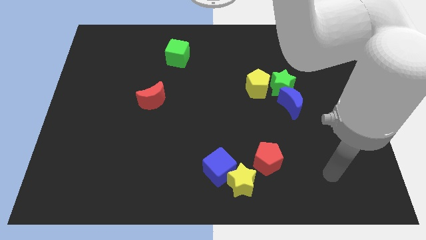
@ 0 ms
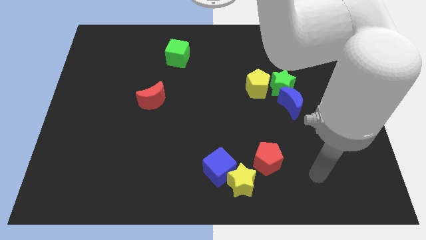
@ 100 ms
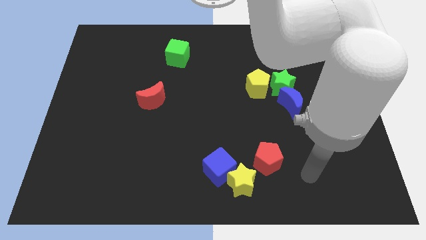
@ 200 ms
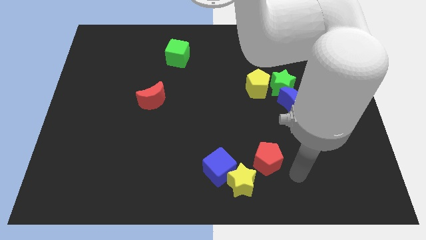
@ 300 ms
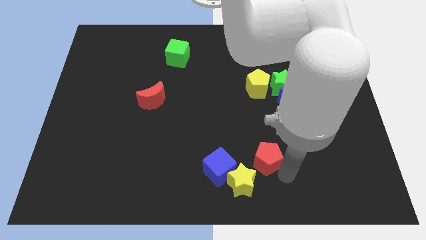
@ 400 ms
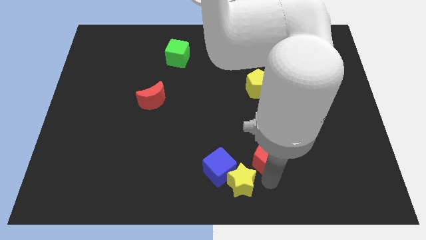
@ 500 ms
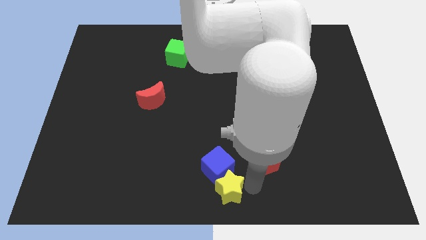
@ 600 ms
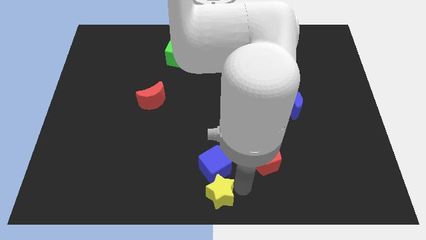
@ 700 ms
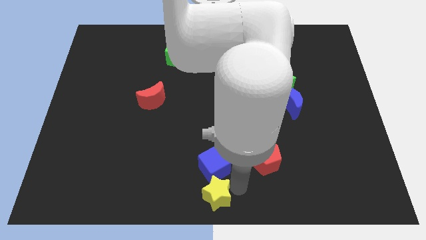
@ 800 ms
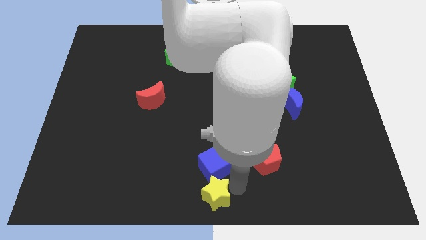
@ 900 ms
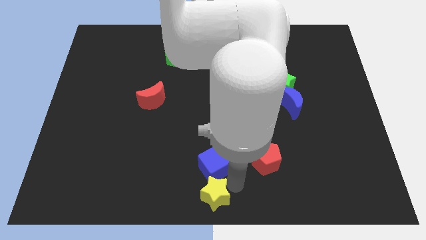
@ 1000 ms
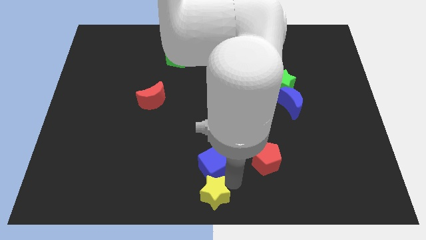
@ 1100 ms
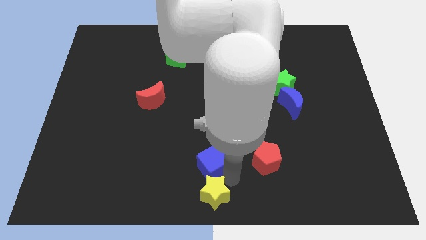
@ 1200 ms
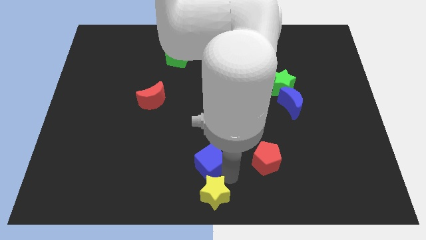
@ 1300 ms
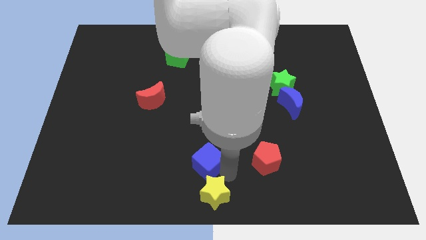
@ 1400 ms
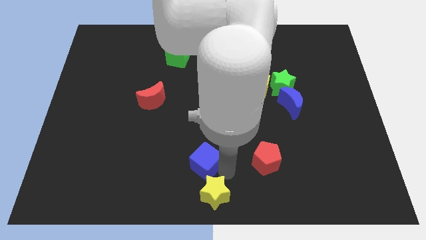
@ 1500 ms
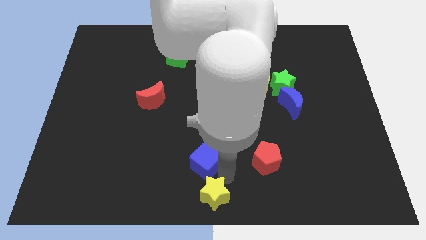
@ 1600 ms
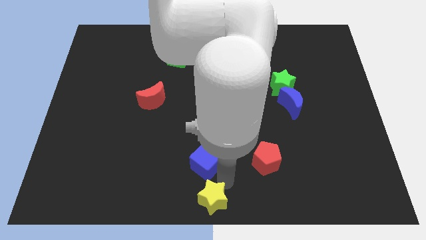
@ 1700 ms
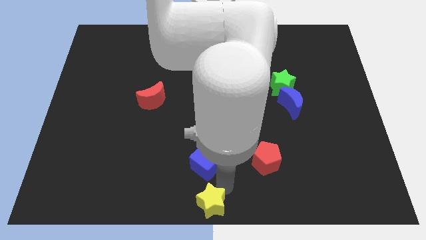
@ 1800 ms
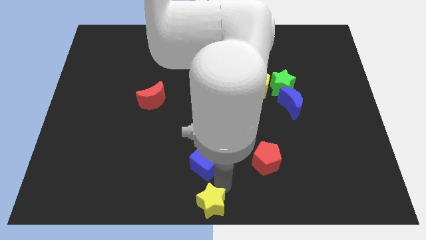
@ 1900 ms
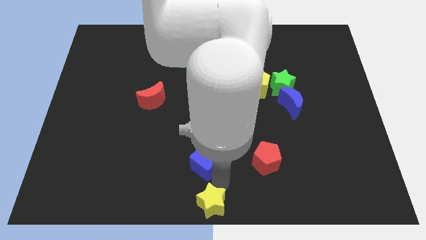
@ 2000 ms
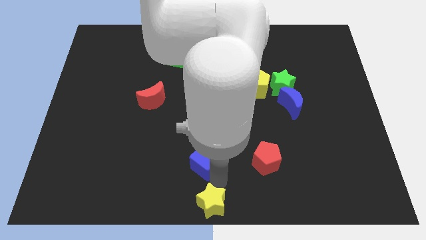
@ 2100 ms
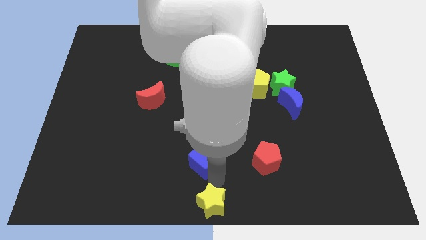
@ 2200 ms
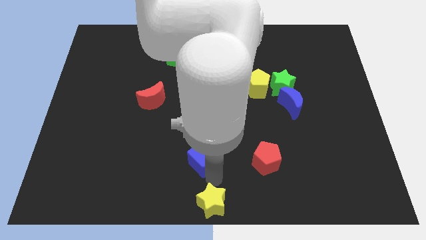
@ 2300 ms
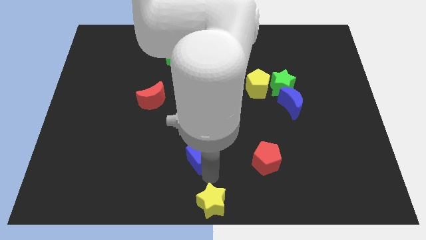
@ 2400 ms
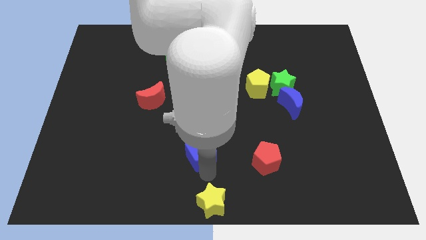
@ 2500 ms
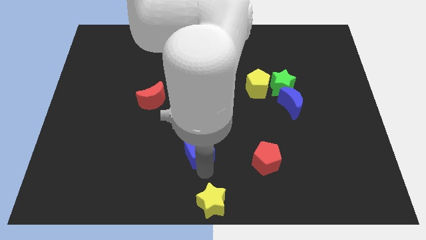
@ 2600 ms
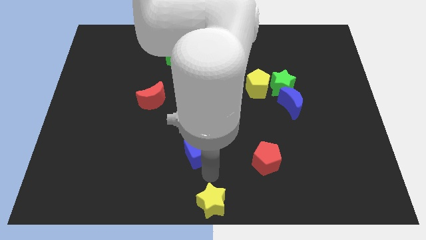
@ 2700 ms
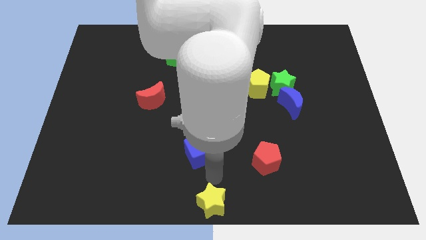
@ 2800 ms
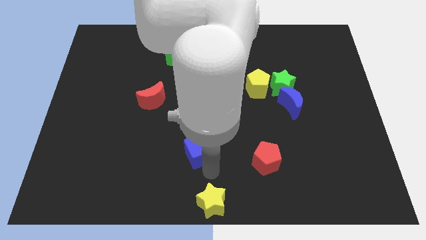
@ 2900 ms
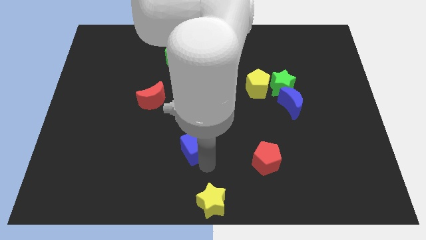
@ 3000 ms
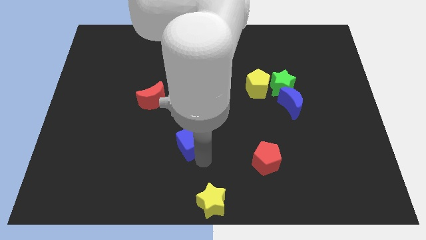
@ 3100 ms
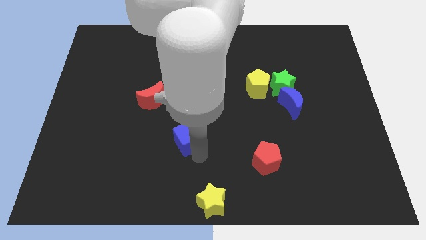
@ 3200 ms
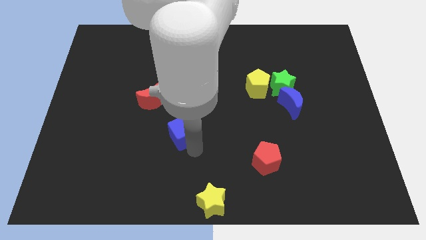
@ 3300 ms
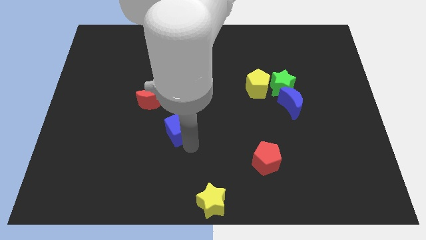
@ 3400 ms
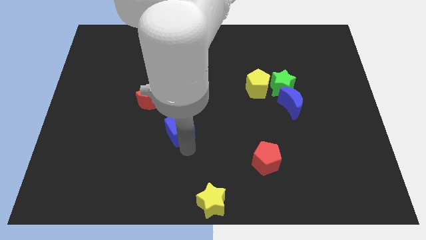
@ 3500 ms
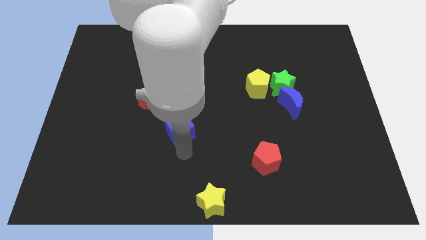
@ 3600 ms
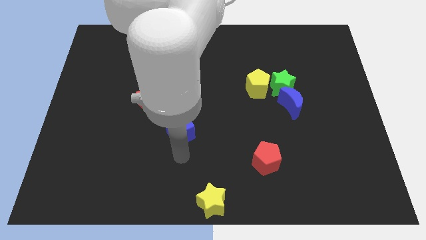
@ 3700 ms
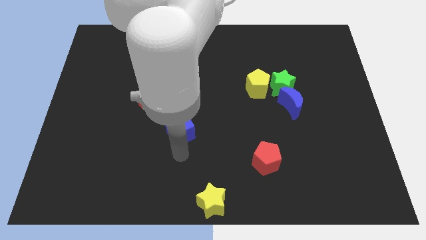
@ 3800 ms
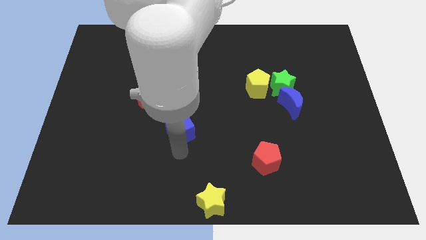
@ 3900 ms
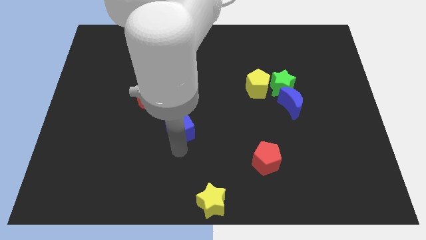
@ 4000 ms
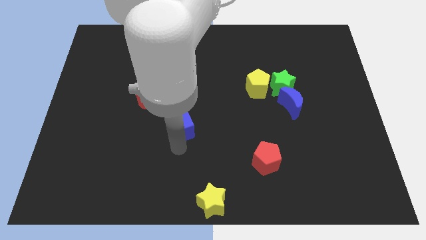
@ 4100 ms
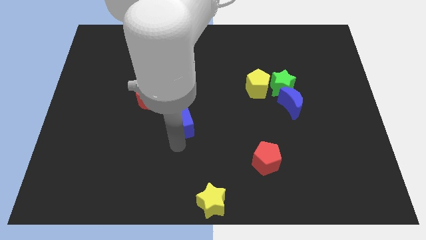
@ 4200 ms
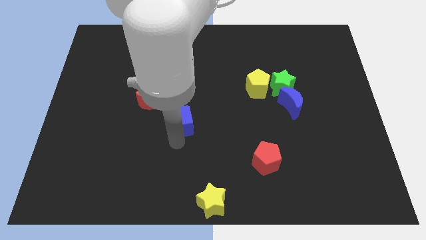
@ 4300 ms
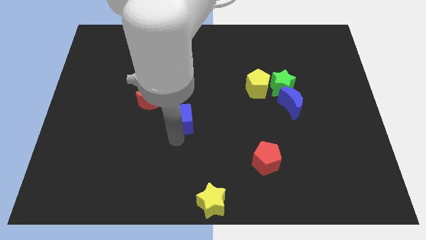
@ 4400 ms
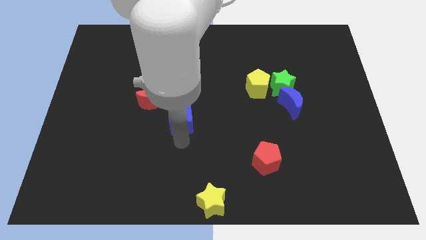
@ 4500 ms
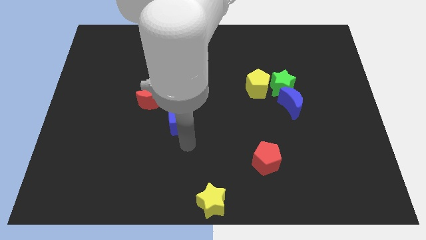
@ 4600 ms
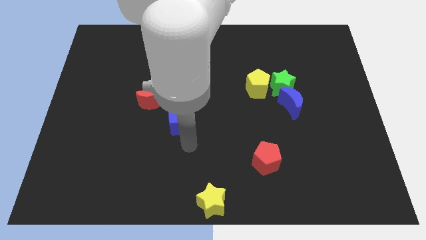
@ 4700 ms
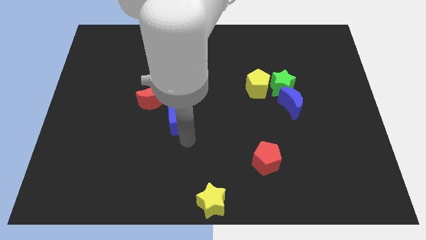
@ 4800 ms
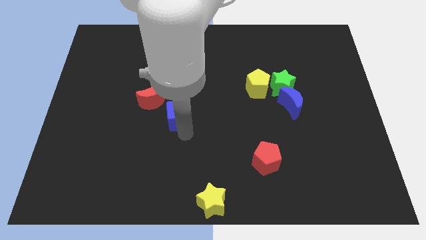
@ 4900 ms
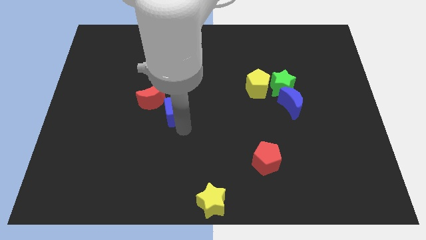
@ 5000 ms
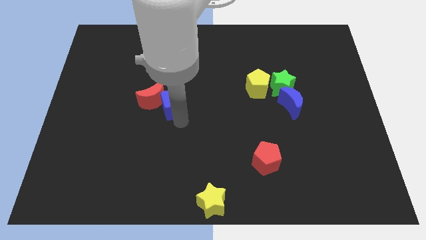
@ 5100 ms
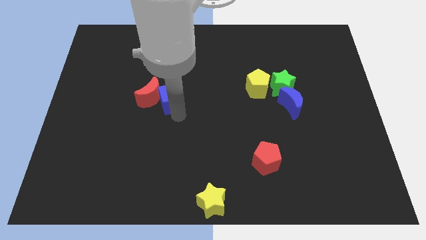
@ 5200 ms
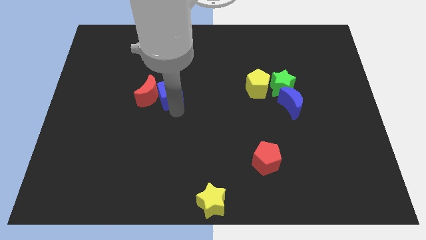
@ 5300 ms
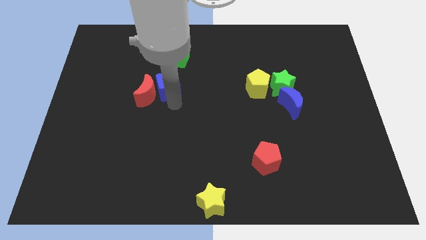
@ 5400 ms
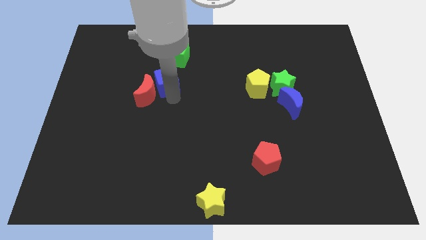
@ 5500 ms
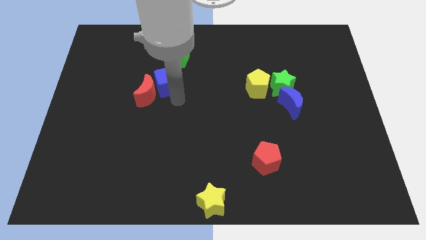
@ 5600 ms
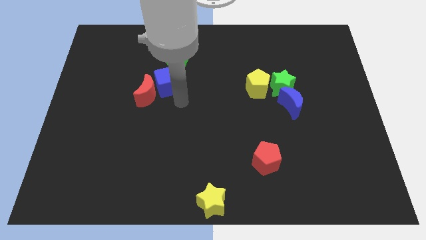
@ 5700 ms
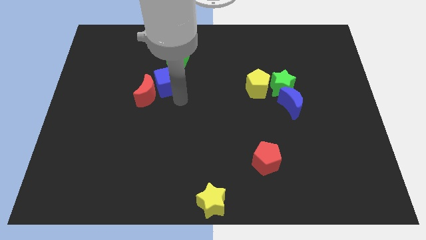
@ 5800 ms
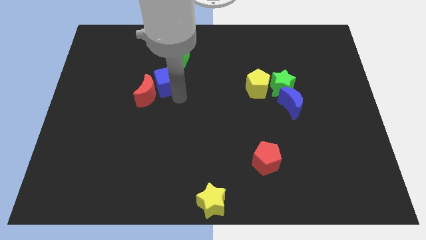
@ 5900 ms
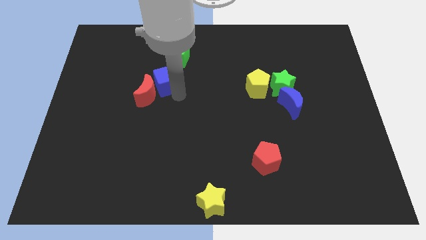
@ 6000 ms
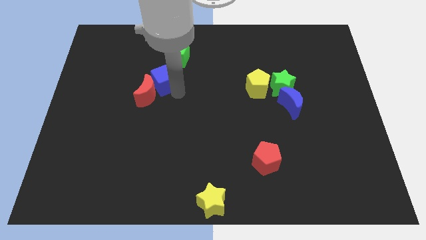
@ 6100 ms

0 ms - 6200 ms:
put the blue cube to the bottom left of the green cube

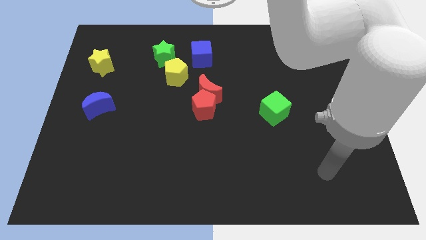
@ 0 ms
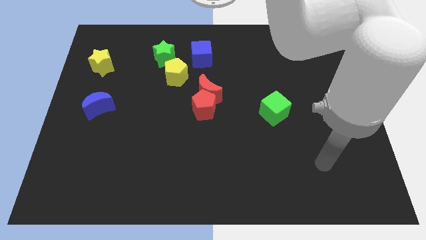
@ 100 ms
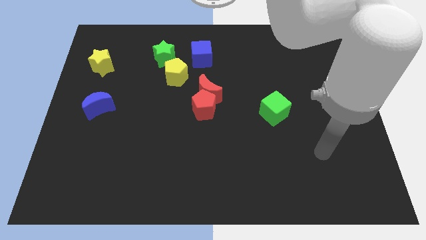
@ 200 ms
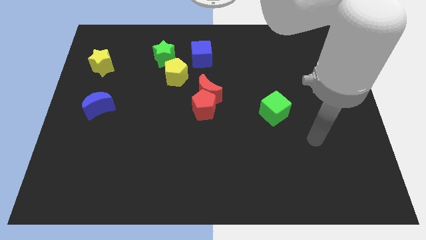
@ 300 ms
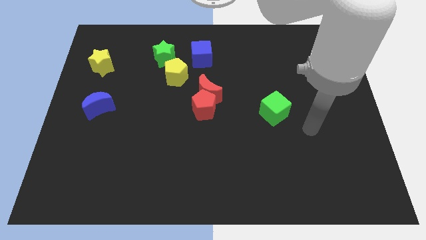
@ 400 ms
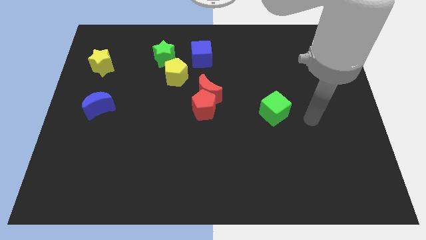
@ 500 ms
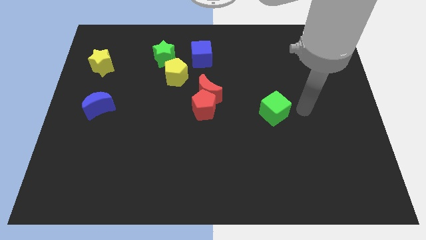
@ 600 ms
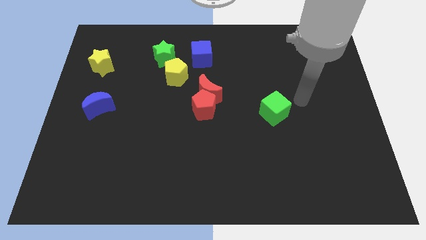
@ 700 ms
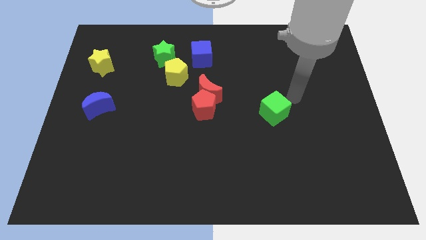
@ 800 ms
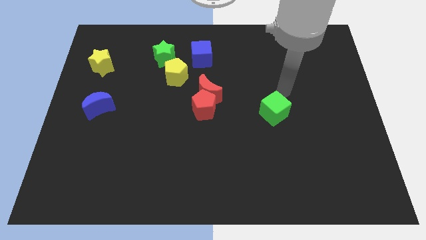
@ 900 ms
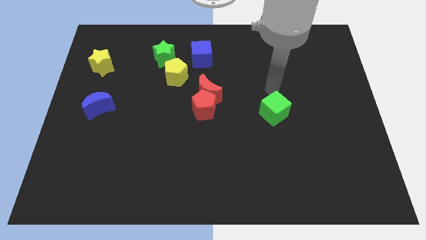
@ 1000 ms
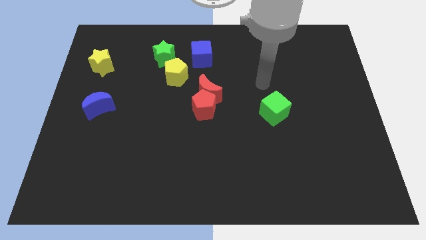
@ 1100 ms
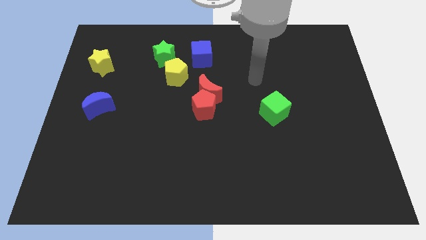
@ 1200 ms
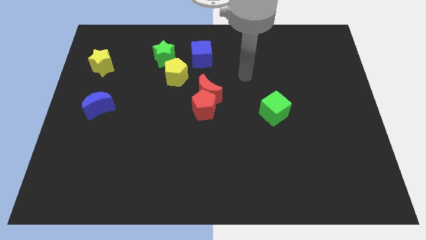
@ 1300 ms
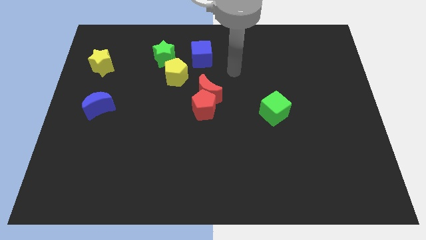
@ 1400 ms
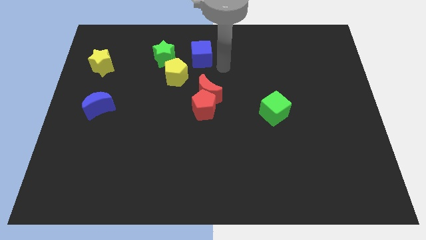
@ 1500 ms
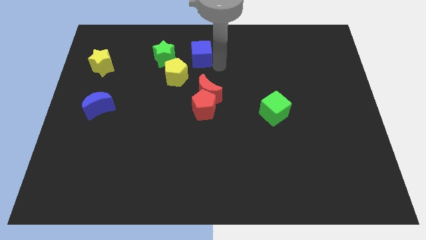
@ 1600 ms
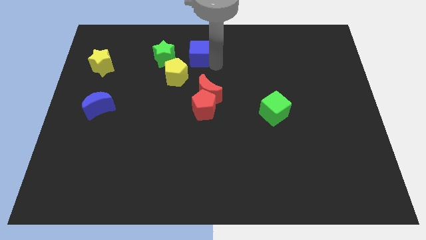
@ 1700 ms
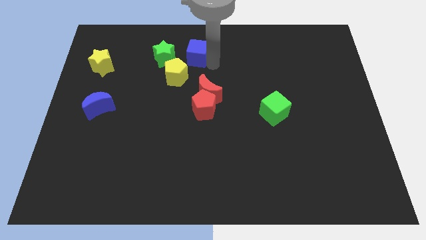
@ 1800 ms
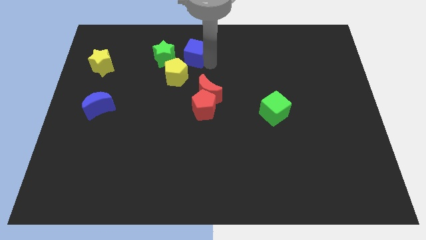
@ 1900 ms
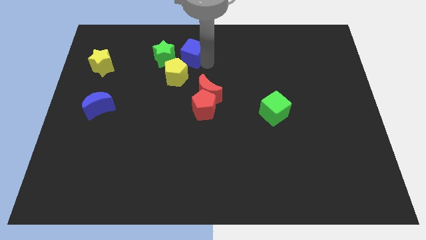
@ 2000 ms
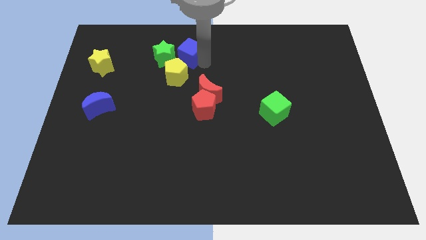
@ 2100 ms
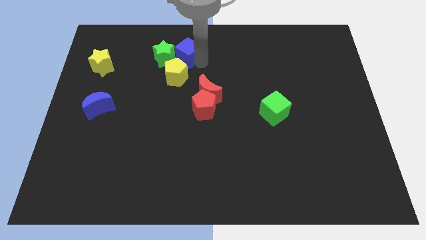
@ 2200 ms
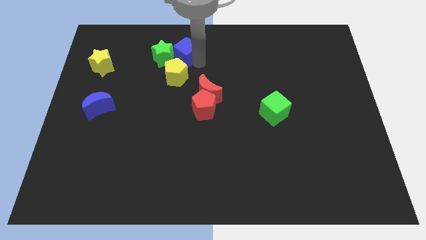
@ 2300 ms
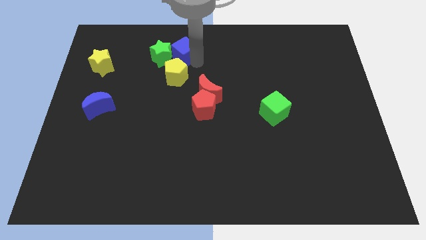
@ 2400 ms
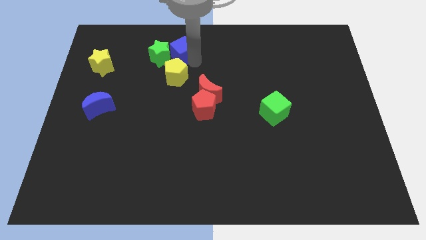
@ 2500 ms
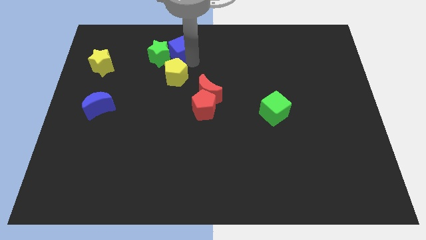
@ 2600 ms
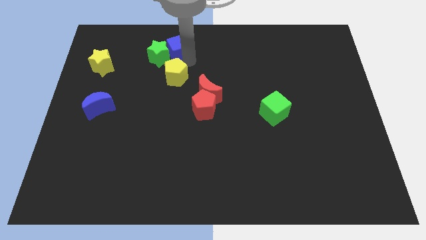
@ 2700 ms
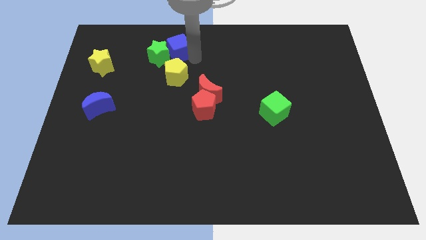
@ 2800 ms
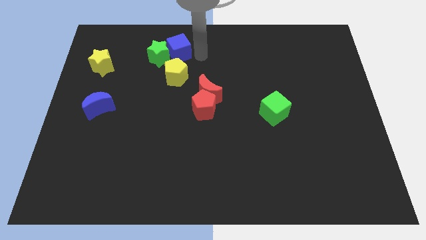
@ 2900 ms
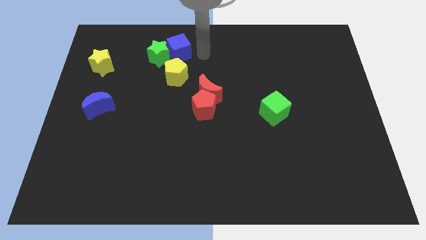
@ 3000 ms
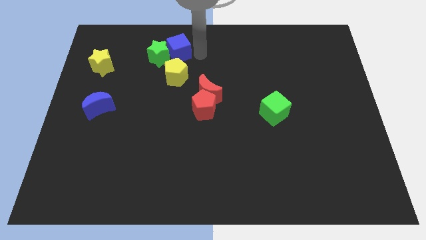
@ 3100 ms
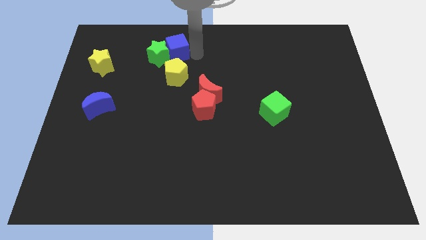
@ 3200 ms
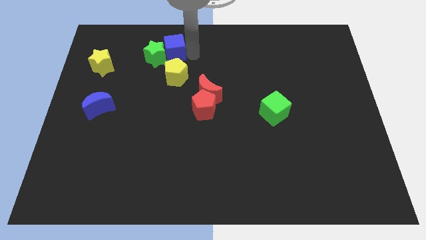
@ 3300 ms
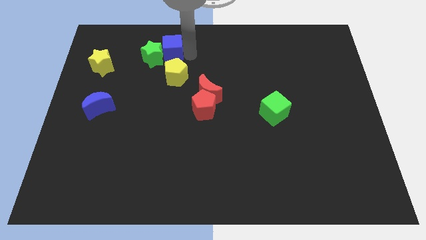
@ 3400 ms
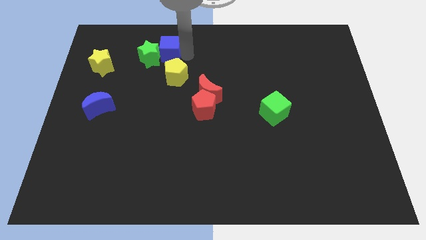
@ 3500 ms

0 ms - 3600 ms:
put the blue cube diagonally up and to the left of the yellow pentagon
